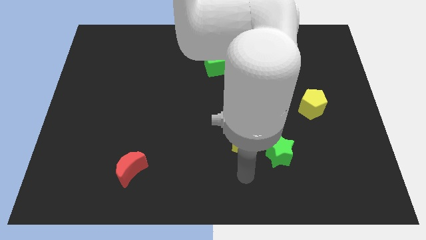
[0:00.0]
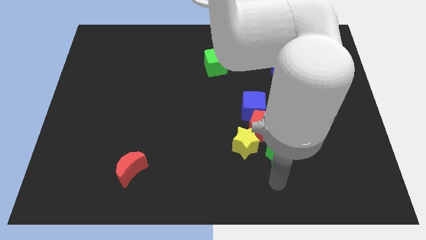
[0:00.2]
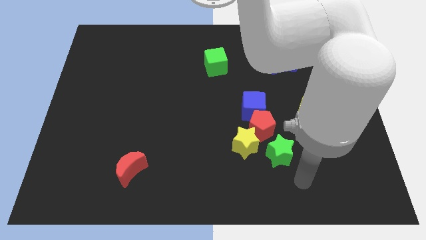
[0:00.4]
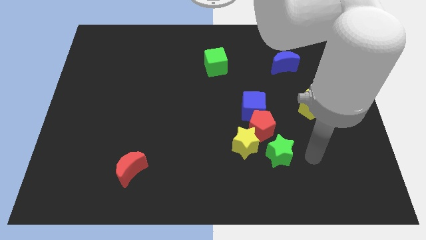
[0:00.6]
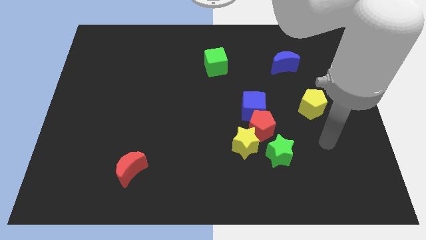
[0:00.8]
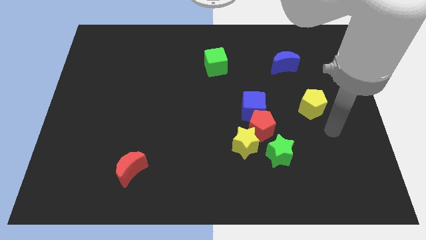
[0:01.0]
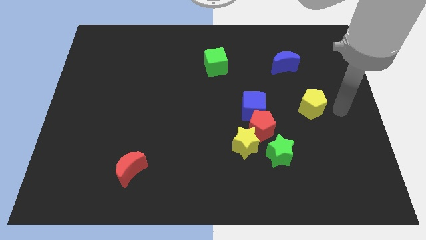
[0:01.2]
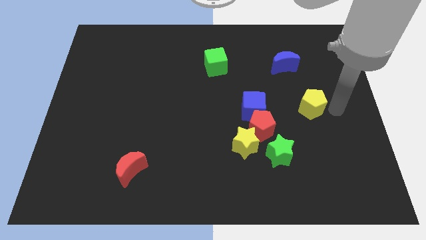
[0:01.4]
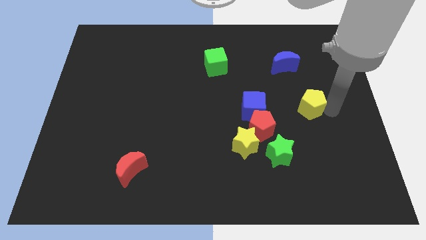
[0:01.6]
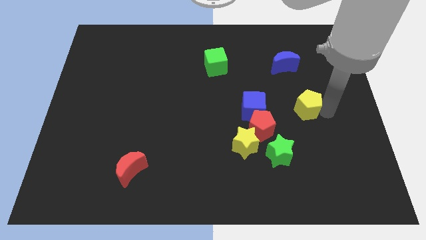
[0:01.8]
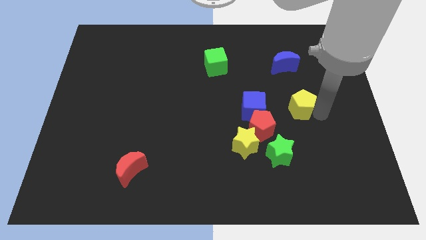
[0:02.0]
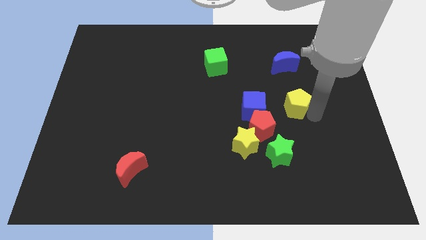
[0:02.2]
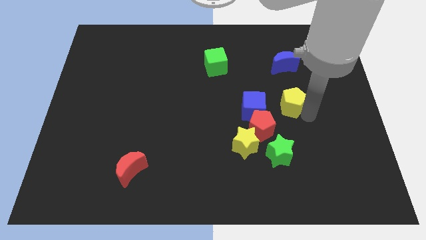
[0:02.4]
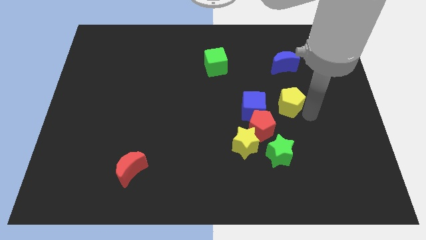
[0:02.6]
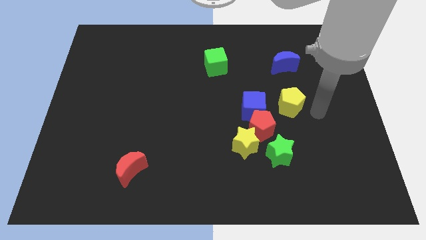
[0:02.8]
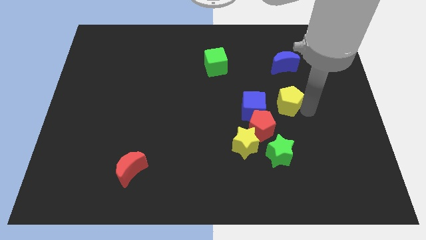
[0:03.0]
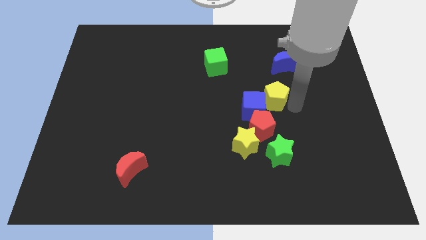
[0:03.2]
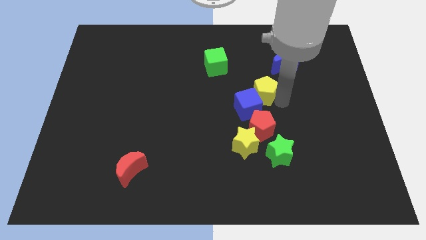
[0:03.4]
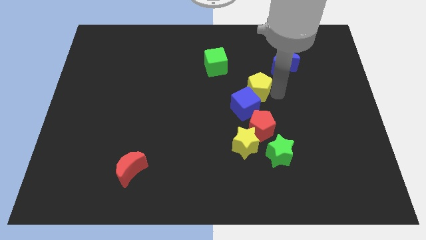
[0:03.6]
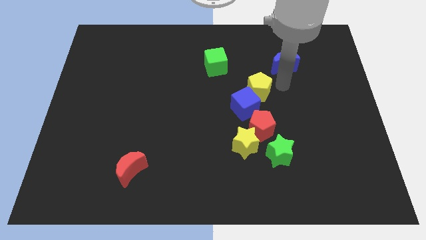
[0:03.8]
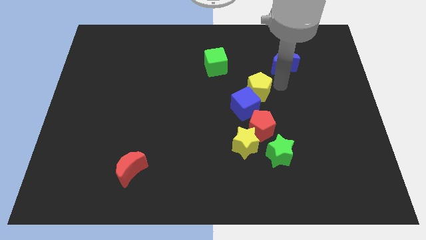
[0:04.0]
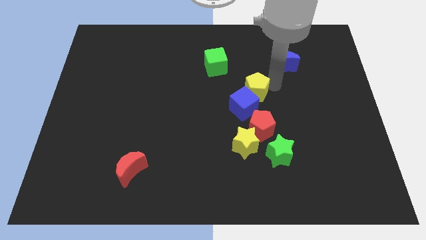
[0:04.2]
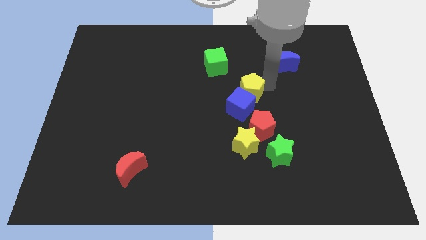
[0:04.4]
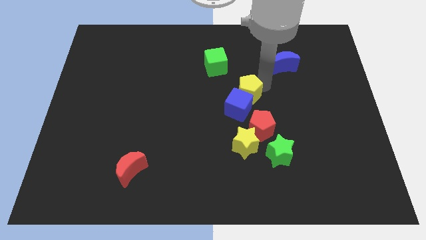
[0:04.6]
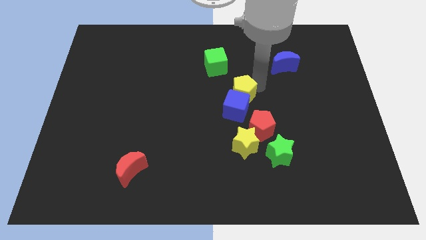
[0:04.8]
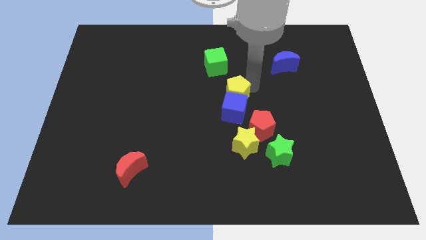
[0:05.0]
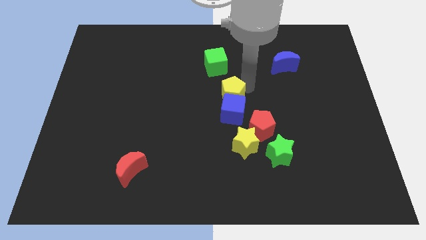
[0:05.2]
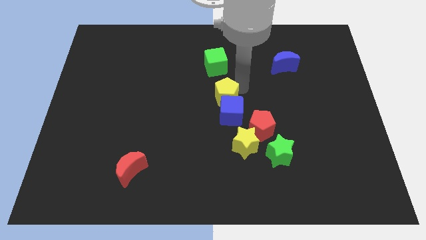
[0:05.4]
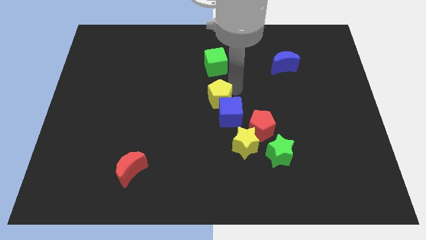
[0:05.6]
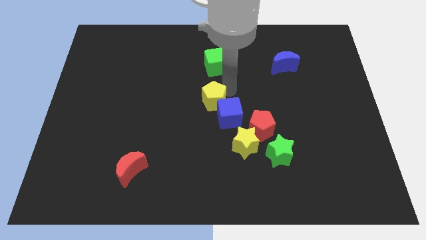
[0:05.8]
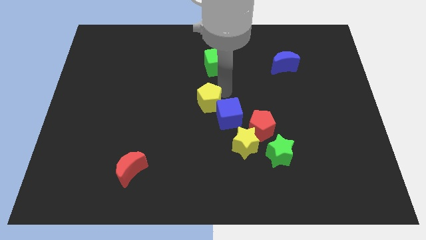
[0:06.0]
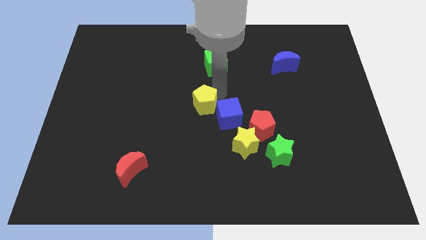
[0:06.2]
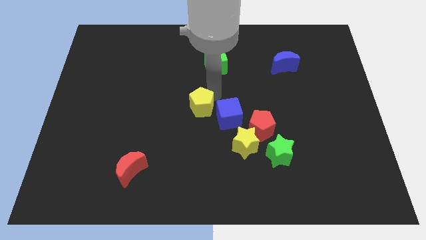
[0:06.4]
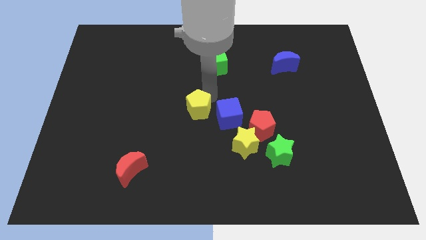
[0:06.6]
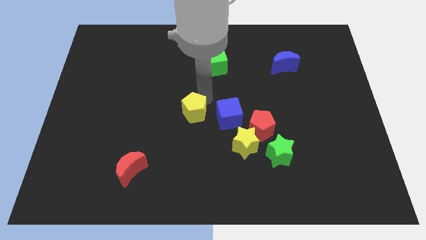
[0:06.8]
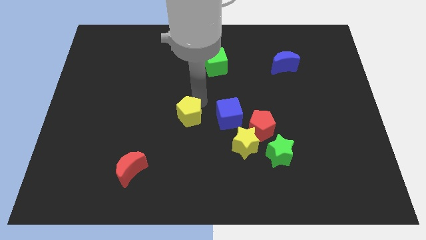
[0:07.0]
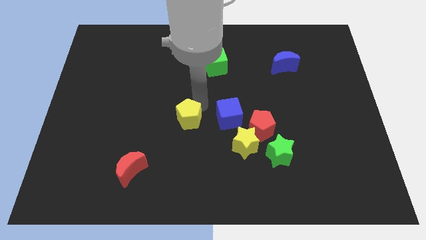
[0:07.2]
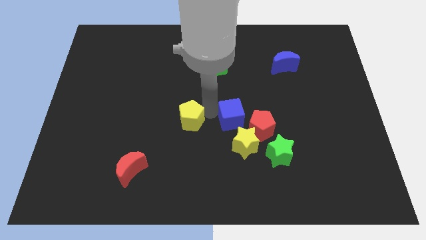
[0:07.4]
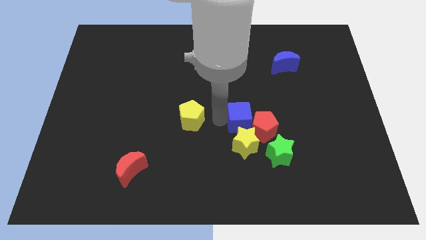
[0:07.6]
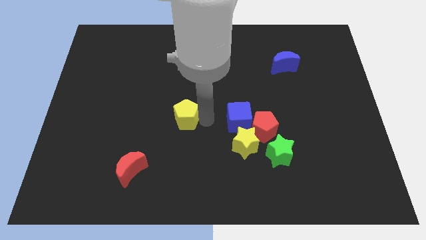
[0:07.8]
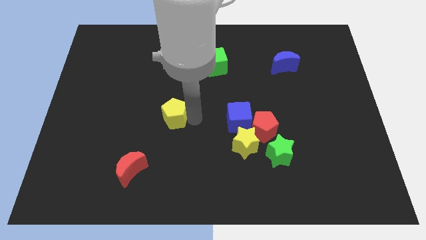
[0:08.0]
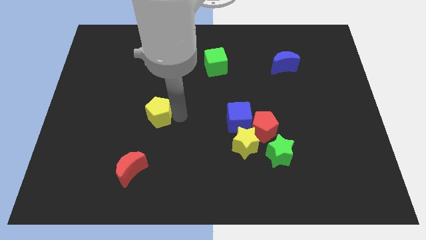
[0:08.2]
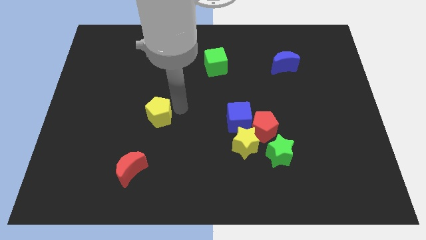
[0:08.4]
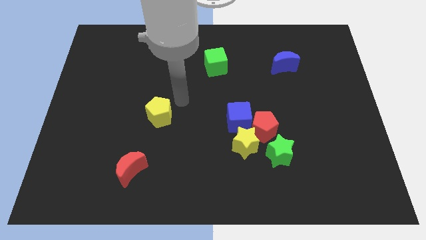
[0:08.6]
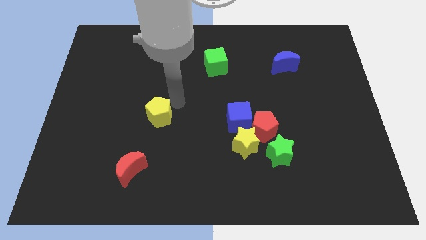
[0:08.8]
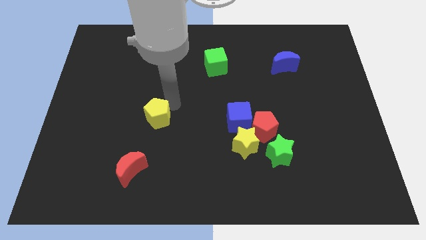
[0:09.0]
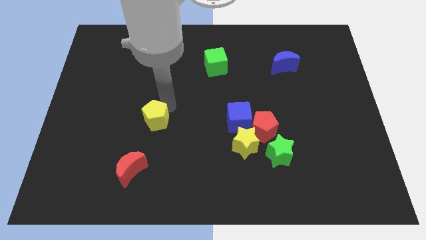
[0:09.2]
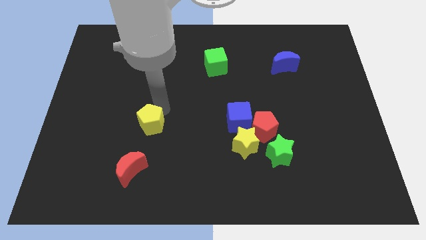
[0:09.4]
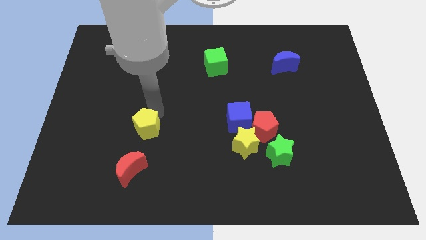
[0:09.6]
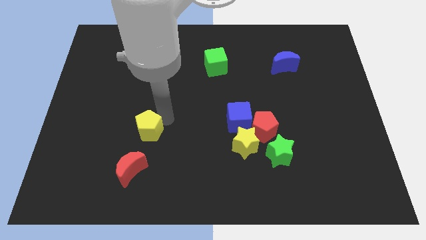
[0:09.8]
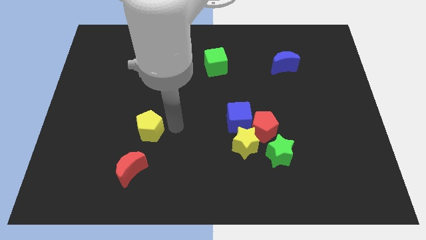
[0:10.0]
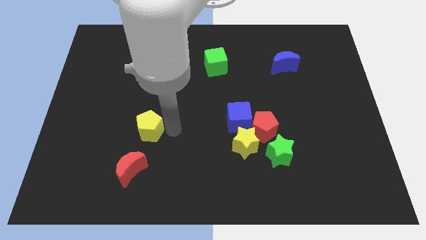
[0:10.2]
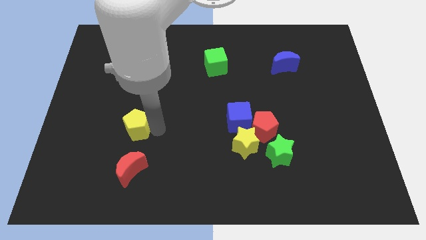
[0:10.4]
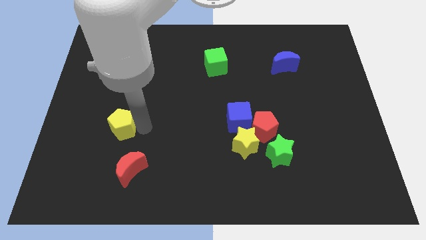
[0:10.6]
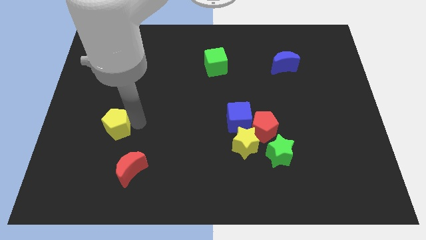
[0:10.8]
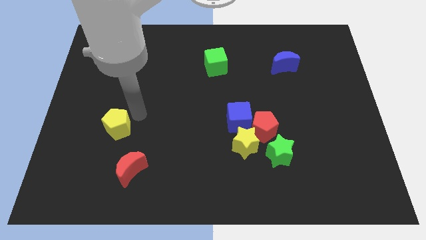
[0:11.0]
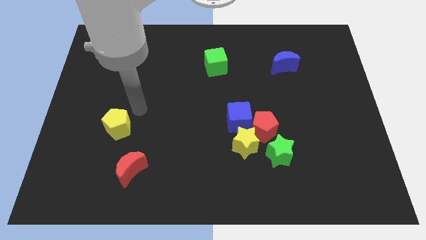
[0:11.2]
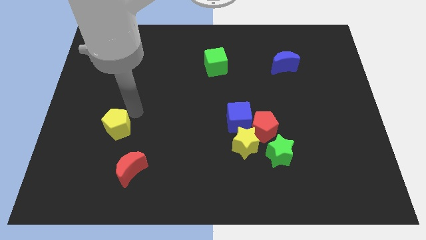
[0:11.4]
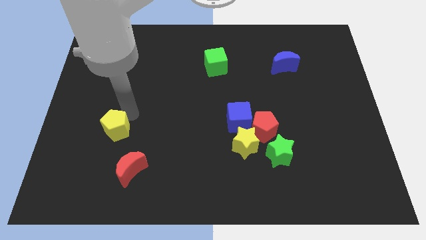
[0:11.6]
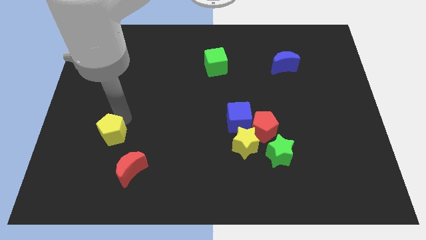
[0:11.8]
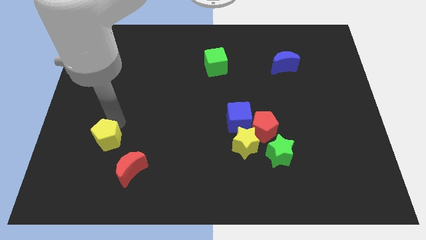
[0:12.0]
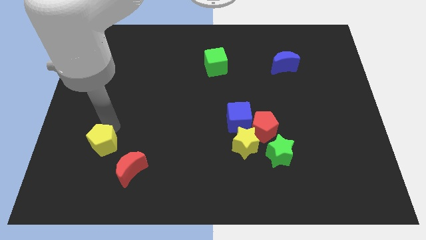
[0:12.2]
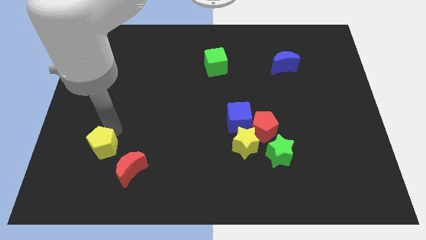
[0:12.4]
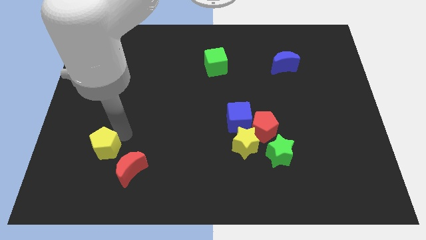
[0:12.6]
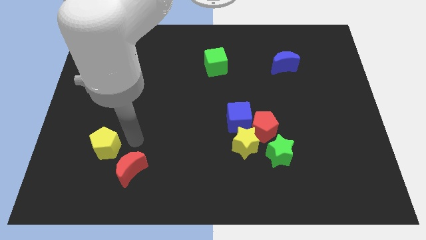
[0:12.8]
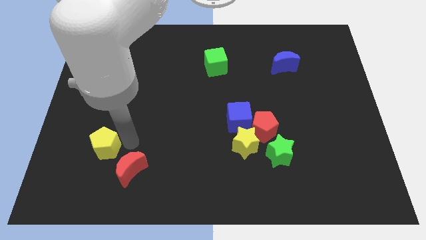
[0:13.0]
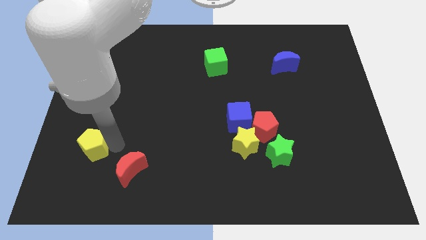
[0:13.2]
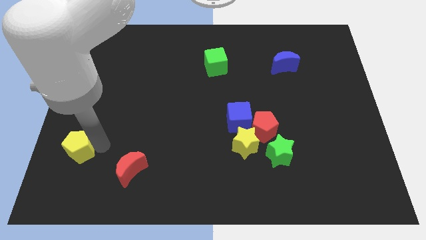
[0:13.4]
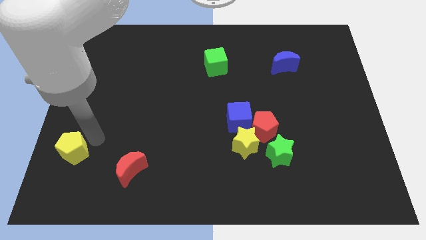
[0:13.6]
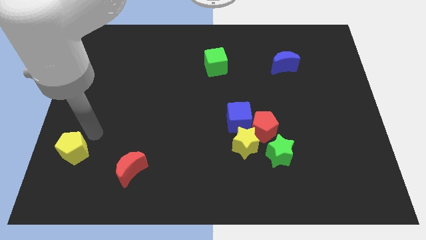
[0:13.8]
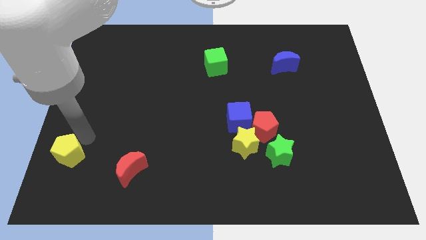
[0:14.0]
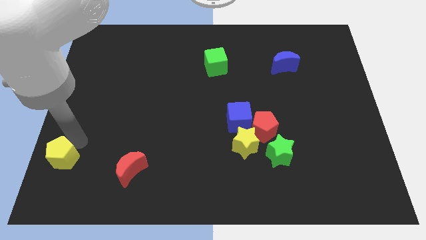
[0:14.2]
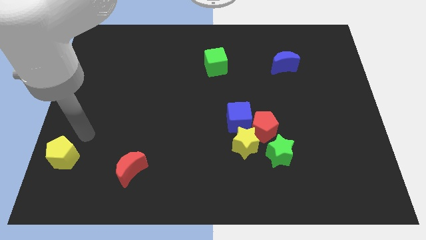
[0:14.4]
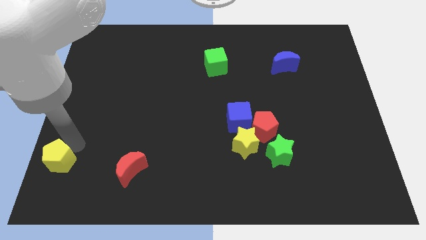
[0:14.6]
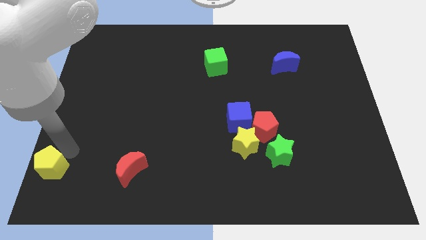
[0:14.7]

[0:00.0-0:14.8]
move the yellow pentagon to the bottom left of the board

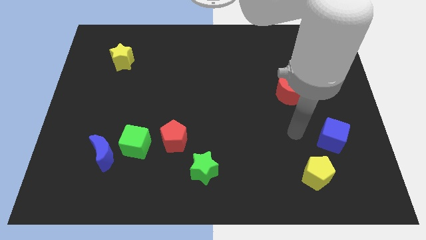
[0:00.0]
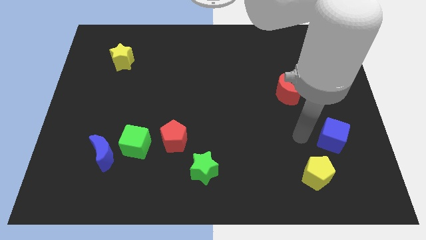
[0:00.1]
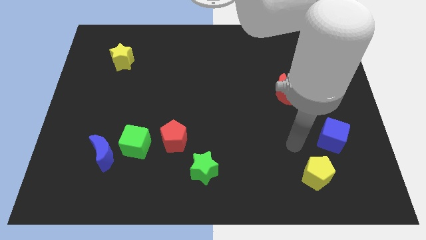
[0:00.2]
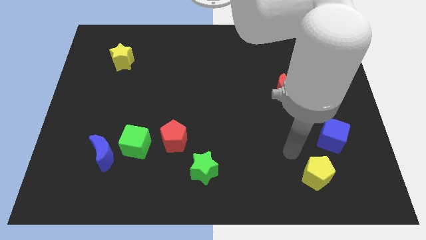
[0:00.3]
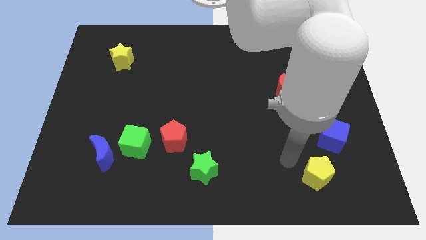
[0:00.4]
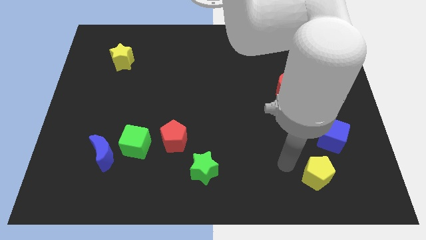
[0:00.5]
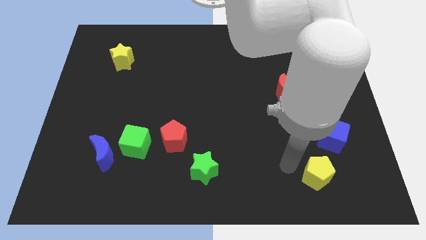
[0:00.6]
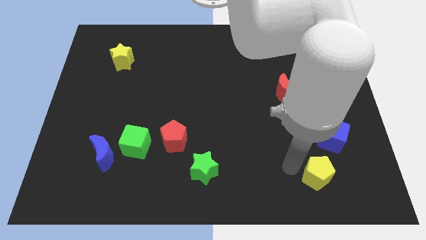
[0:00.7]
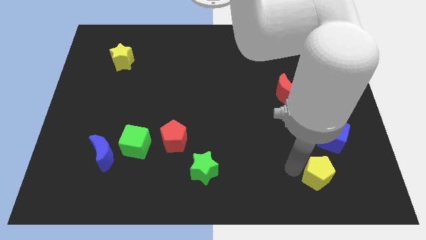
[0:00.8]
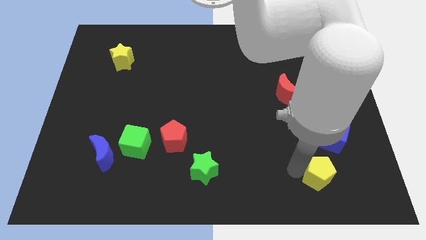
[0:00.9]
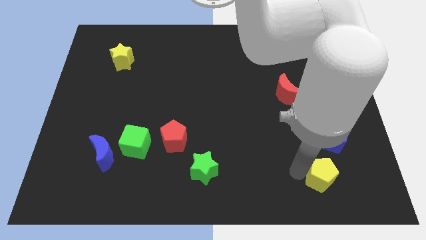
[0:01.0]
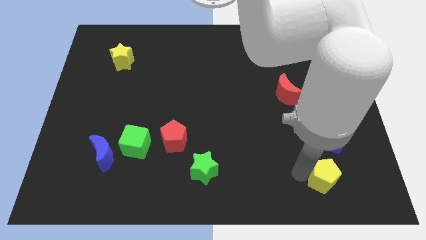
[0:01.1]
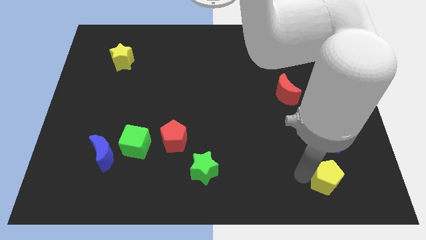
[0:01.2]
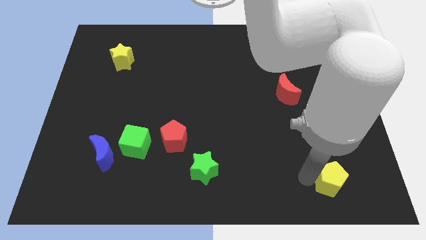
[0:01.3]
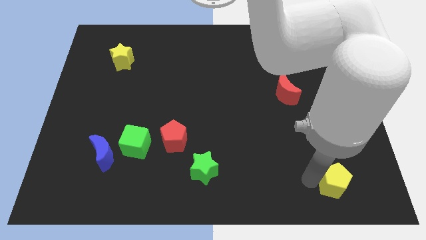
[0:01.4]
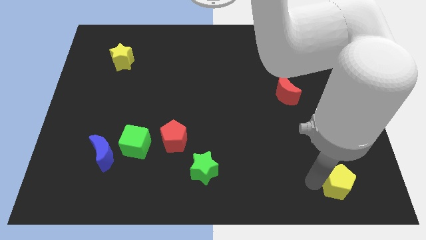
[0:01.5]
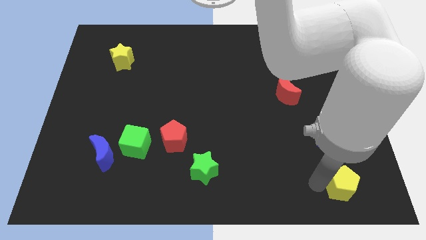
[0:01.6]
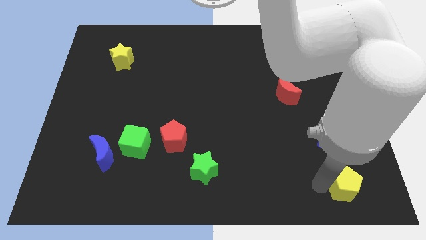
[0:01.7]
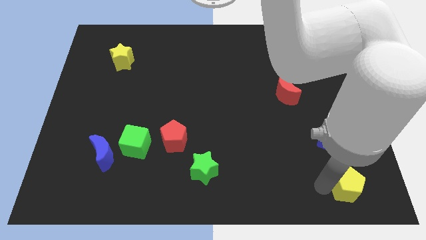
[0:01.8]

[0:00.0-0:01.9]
put the yellow pentagon to the bottom right corner
